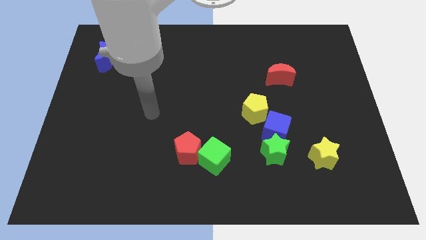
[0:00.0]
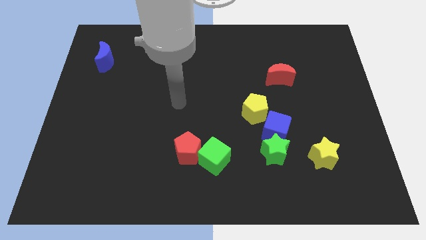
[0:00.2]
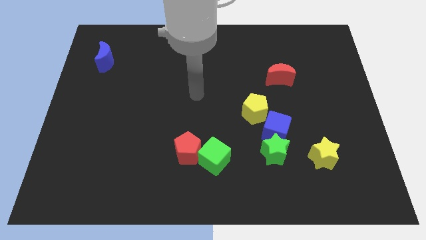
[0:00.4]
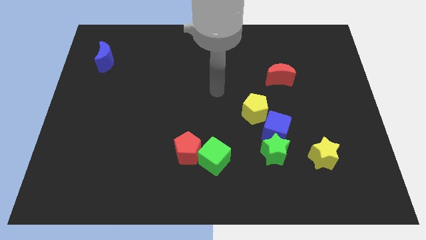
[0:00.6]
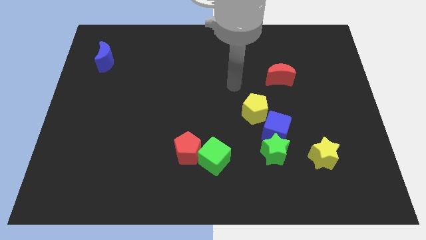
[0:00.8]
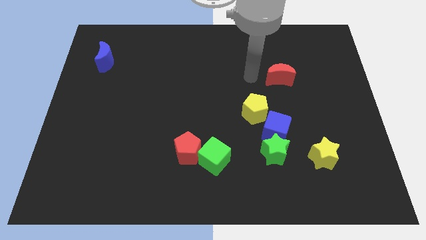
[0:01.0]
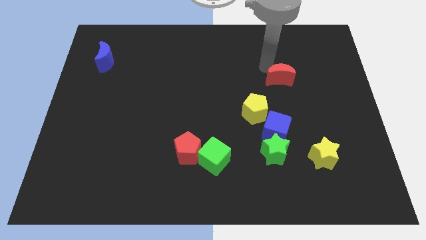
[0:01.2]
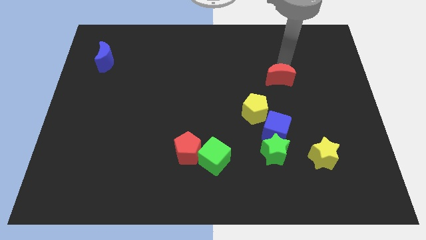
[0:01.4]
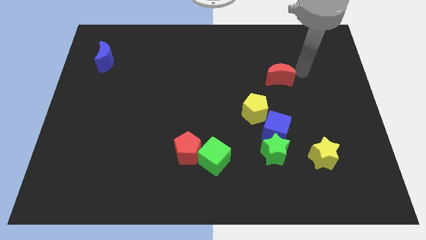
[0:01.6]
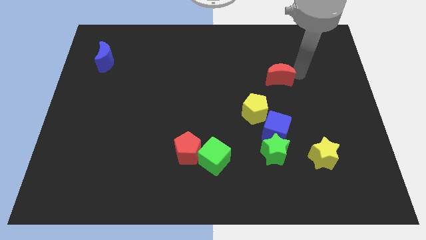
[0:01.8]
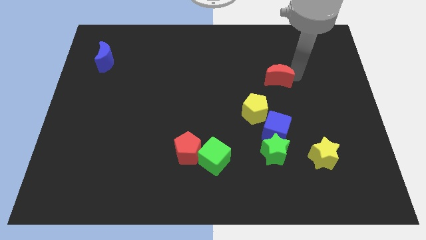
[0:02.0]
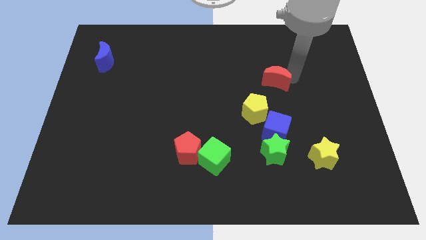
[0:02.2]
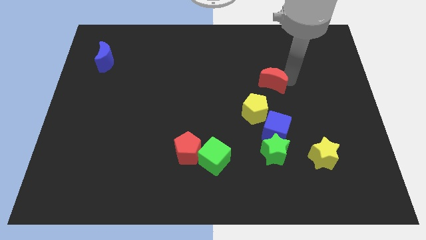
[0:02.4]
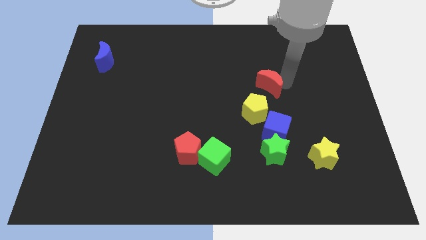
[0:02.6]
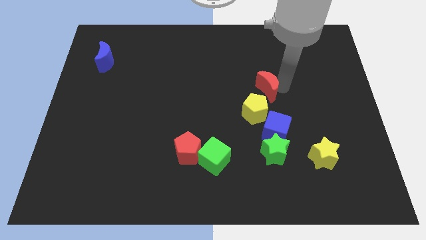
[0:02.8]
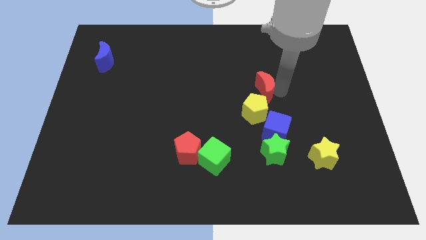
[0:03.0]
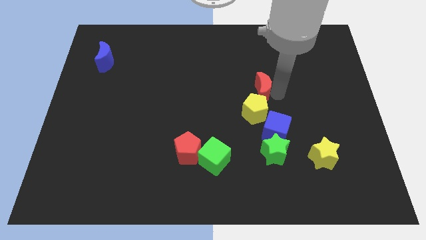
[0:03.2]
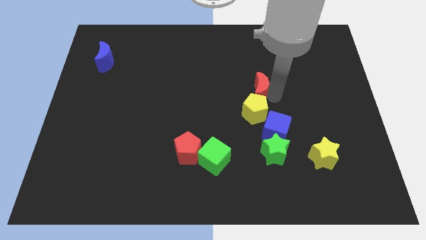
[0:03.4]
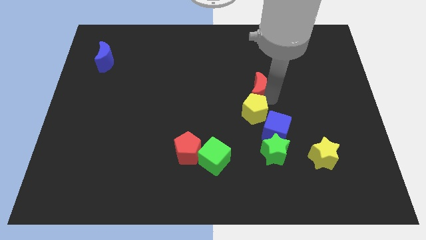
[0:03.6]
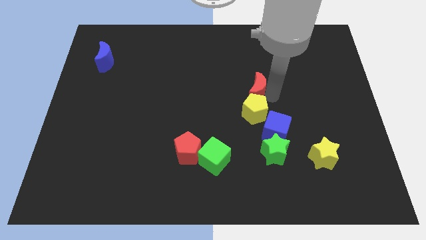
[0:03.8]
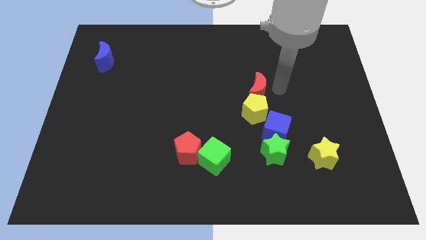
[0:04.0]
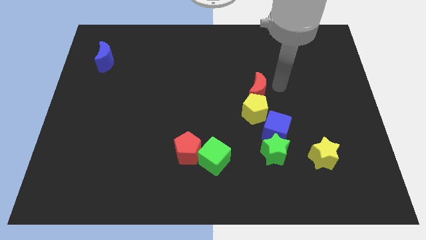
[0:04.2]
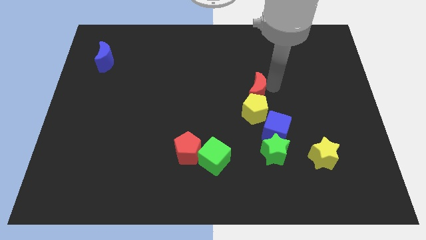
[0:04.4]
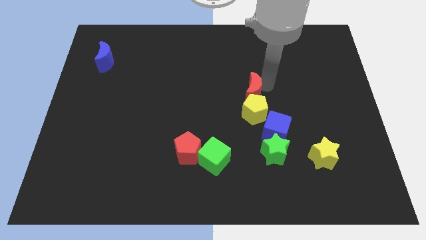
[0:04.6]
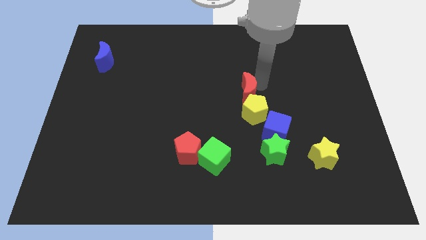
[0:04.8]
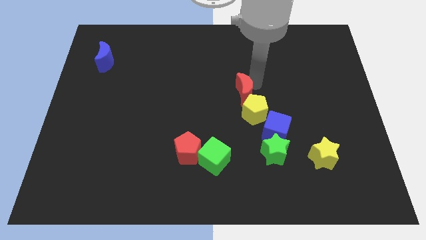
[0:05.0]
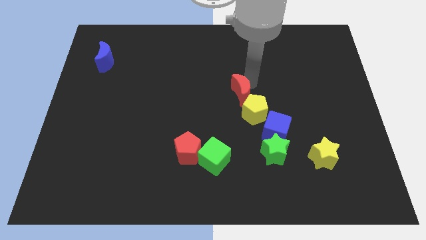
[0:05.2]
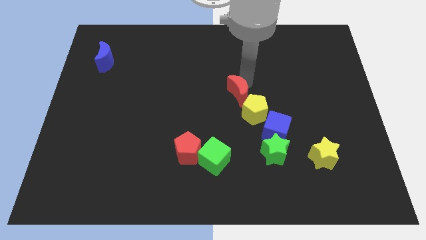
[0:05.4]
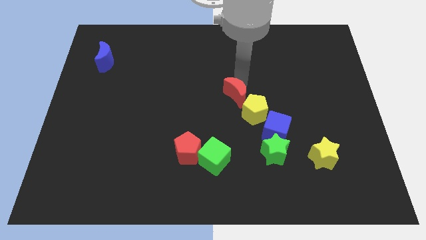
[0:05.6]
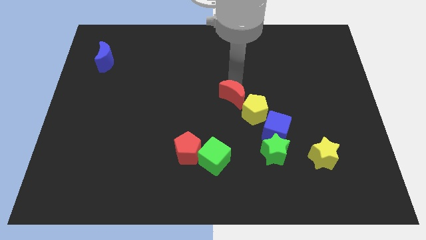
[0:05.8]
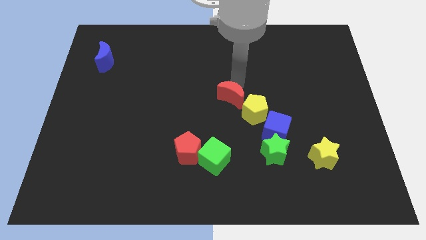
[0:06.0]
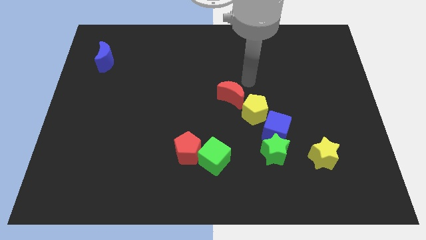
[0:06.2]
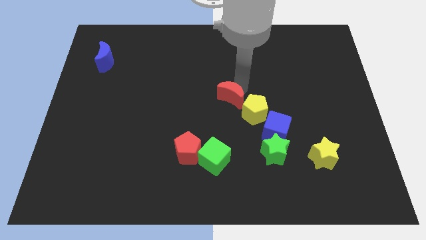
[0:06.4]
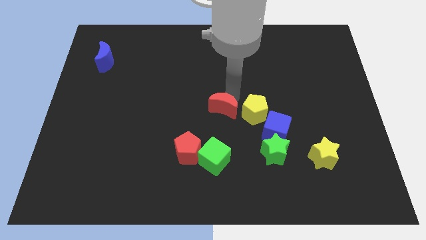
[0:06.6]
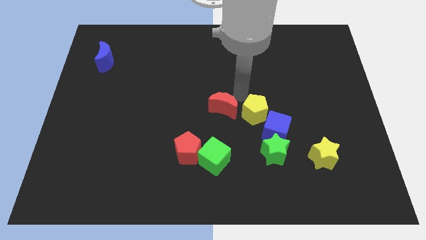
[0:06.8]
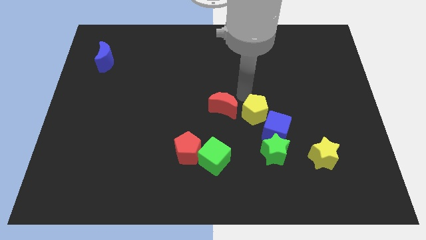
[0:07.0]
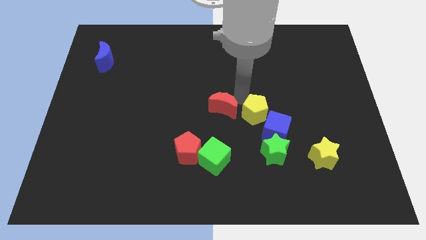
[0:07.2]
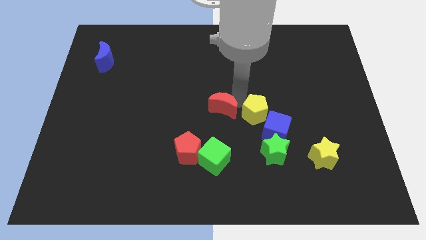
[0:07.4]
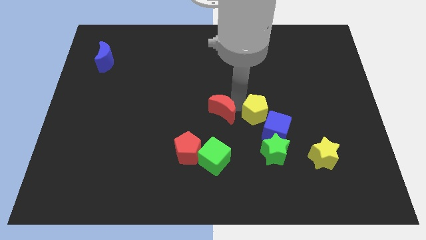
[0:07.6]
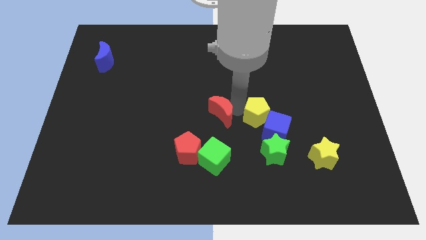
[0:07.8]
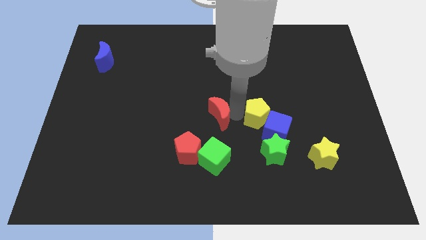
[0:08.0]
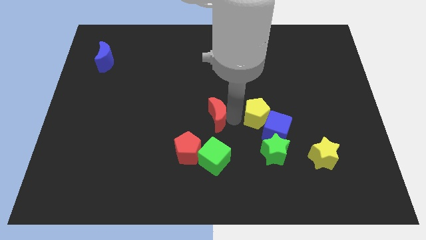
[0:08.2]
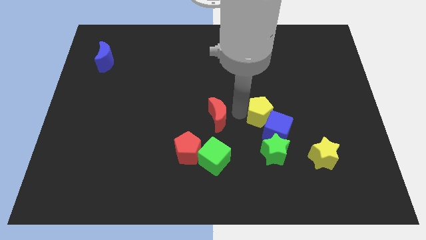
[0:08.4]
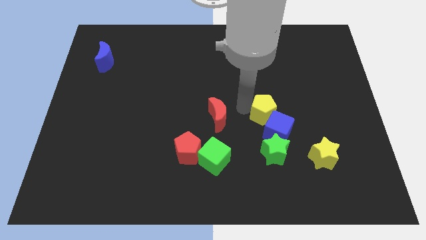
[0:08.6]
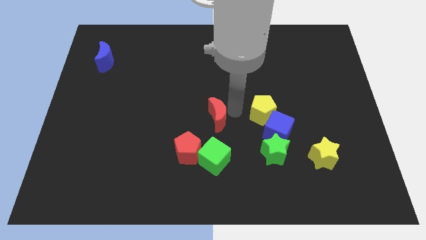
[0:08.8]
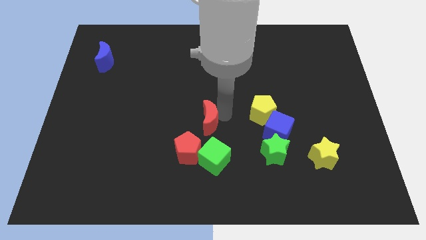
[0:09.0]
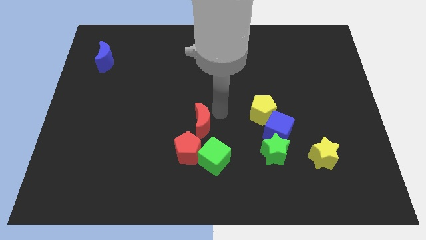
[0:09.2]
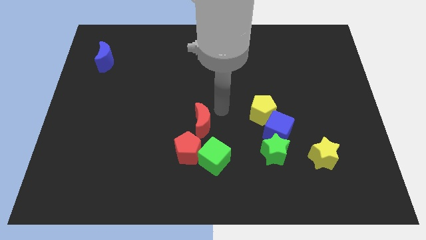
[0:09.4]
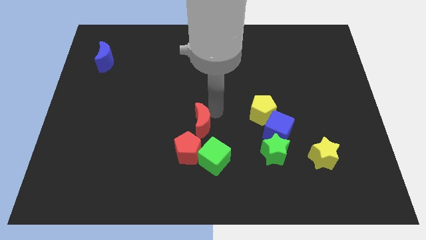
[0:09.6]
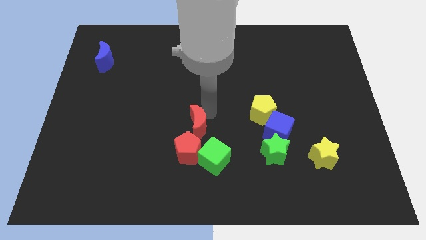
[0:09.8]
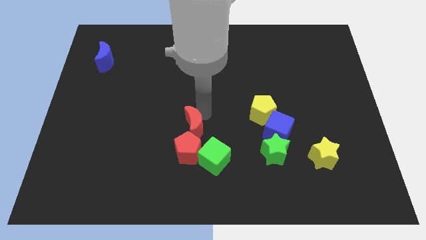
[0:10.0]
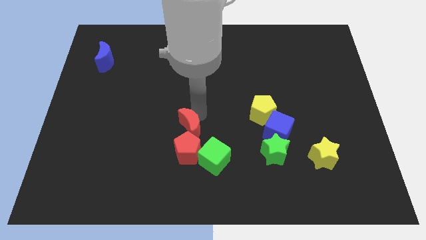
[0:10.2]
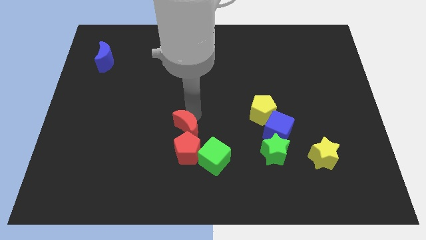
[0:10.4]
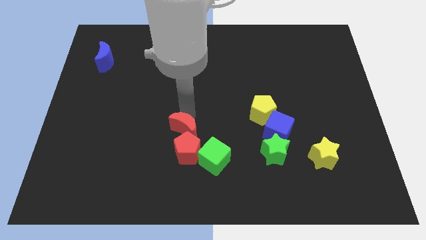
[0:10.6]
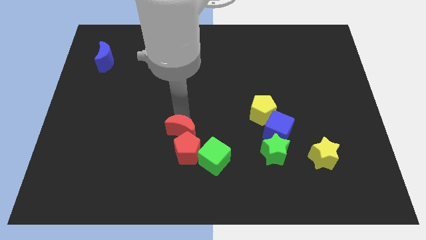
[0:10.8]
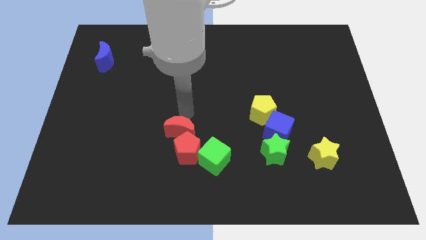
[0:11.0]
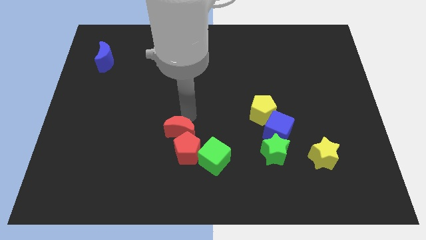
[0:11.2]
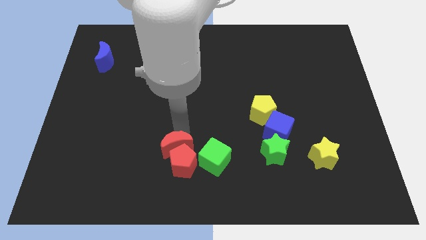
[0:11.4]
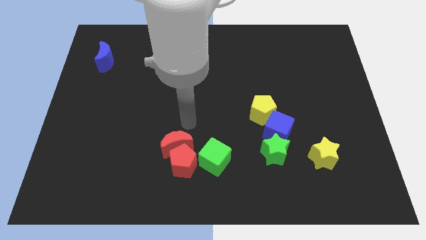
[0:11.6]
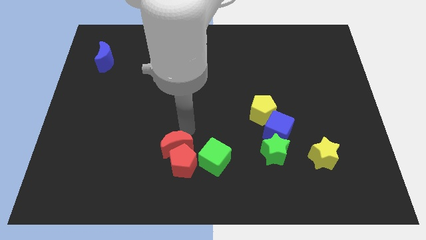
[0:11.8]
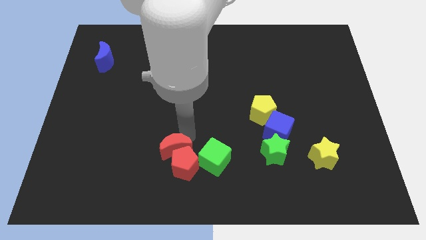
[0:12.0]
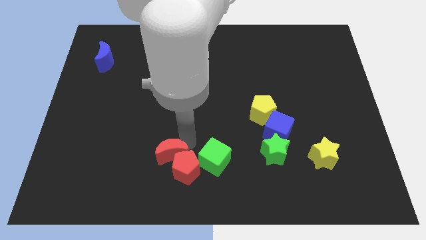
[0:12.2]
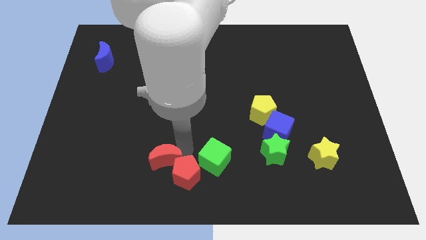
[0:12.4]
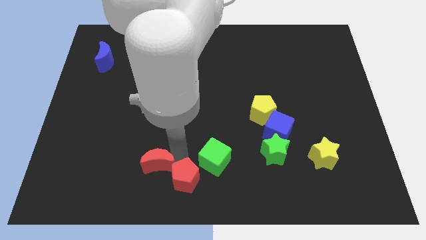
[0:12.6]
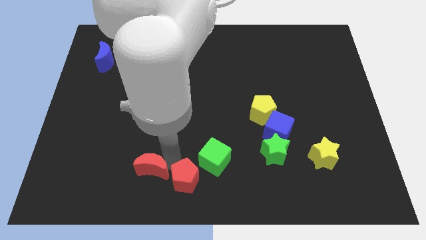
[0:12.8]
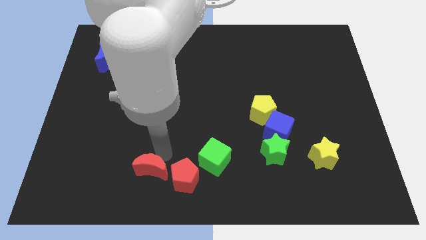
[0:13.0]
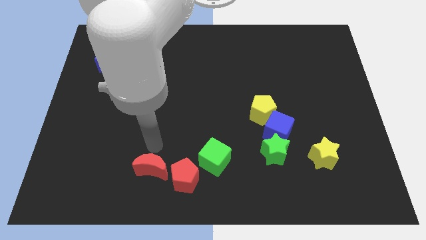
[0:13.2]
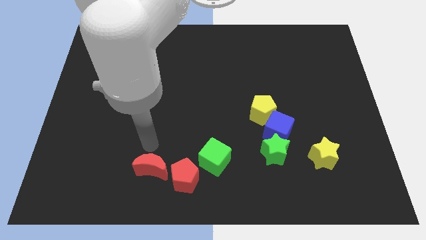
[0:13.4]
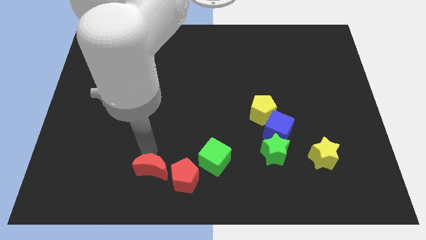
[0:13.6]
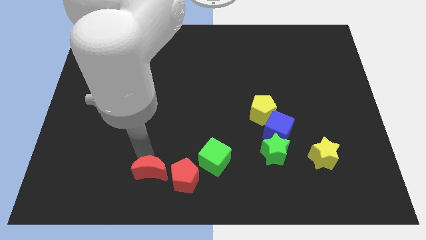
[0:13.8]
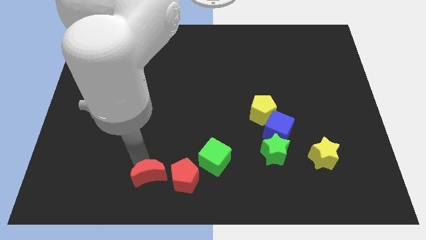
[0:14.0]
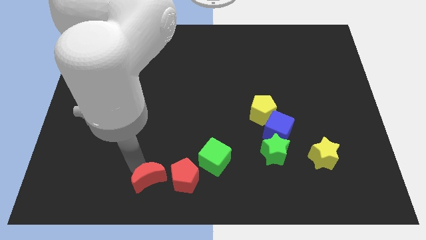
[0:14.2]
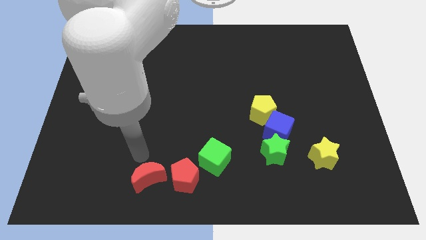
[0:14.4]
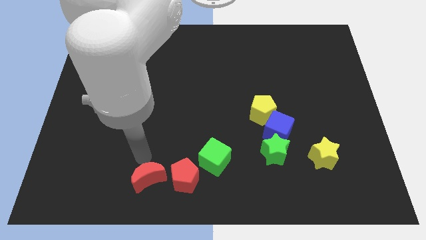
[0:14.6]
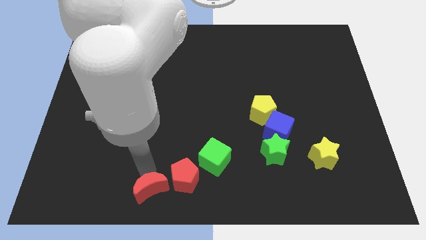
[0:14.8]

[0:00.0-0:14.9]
slide the red moon to the bottom left of the red pentagon
